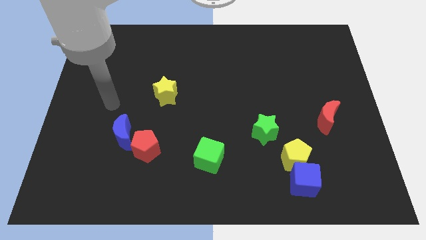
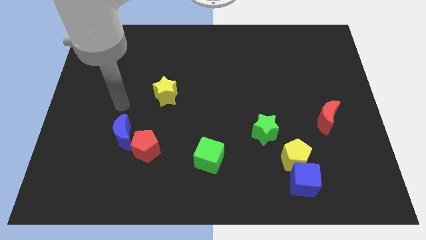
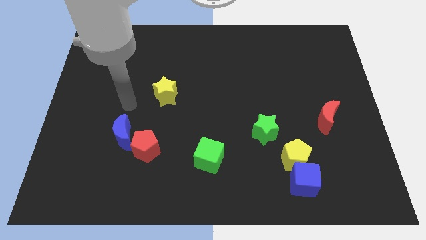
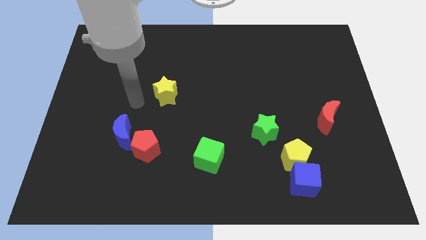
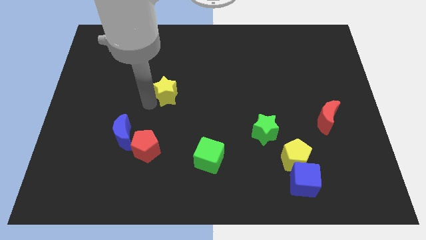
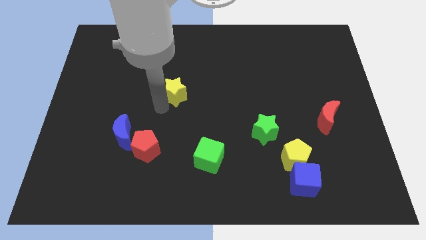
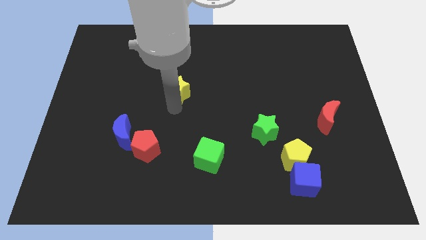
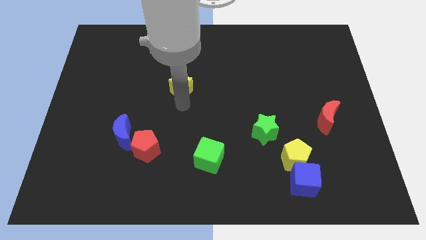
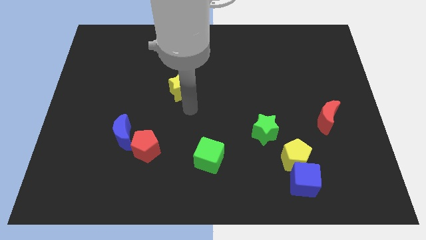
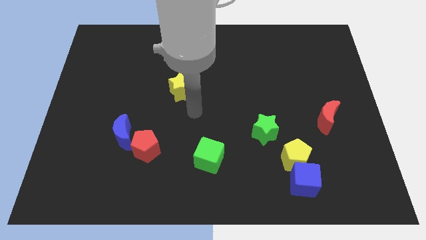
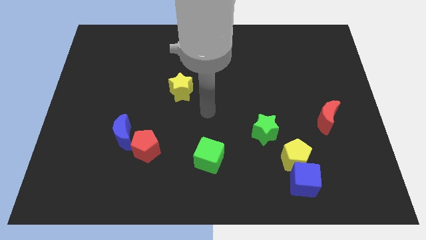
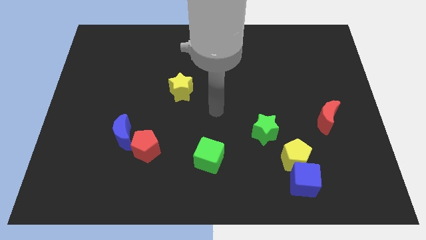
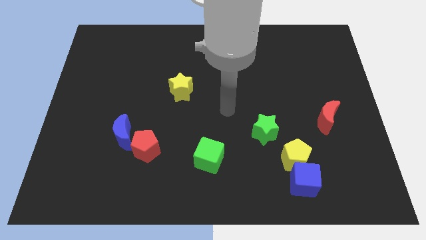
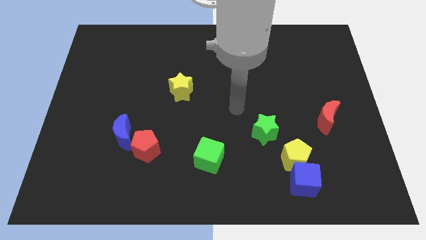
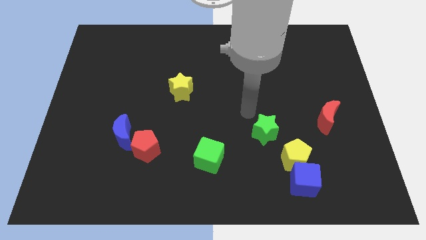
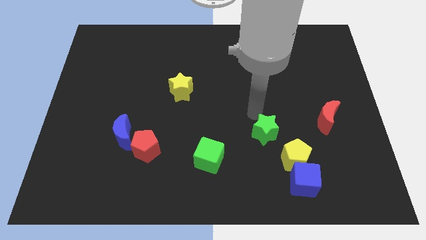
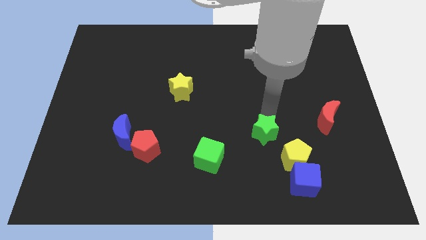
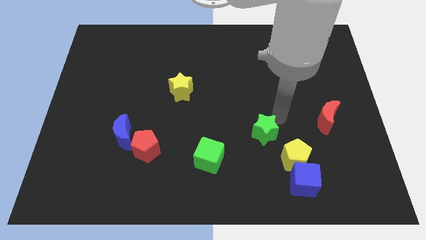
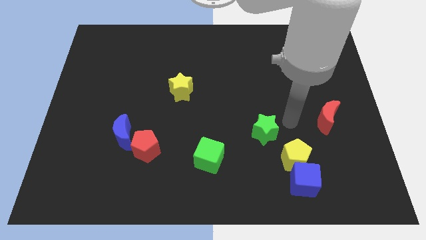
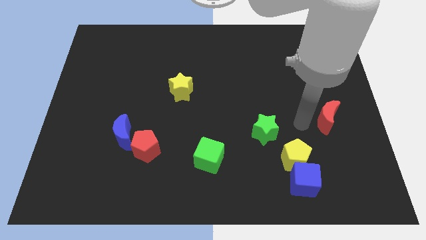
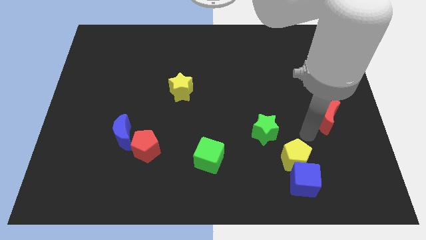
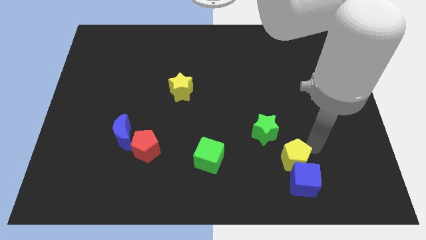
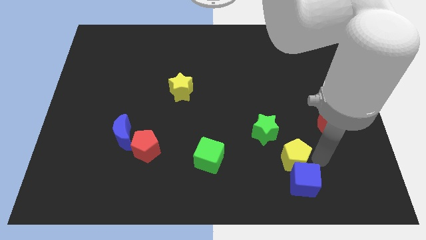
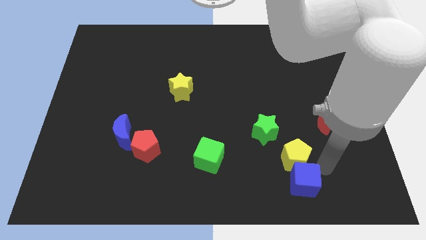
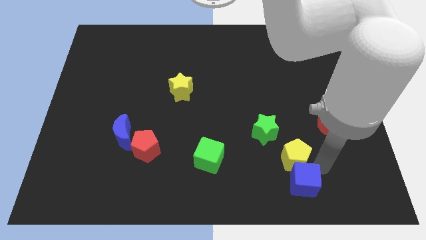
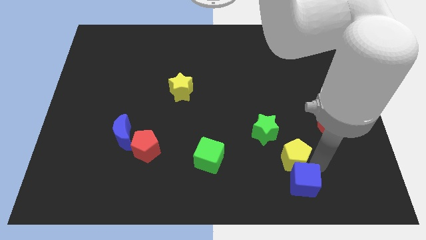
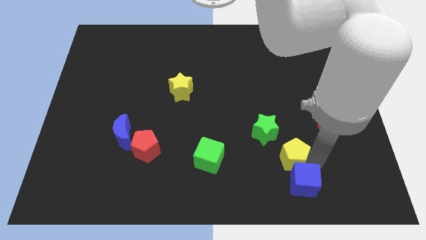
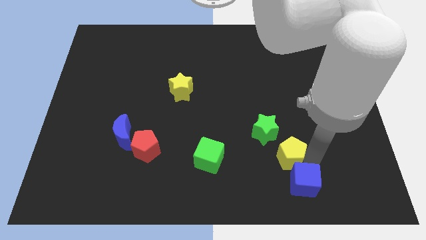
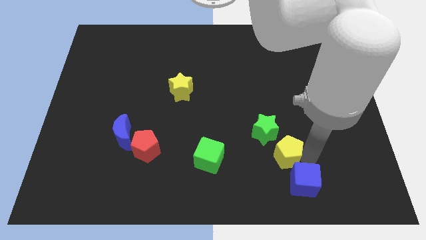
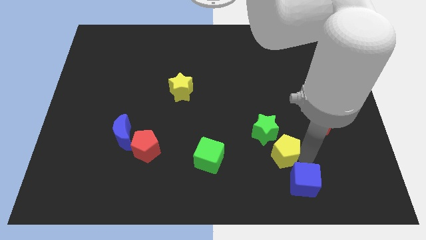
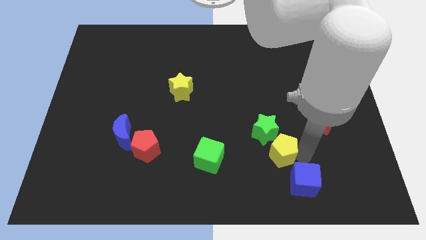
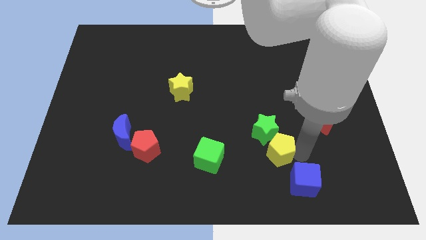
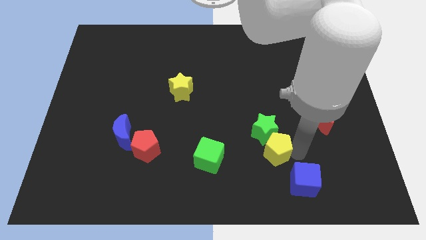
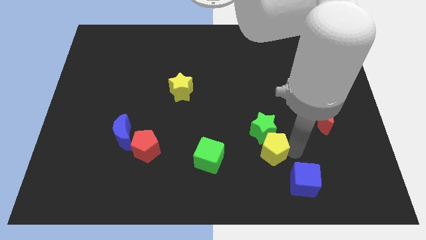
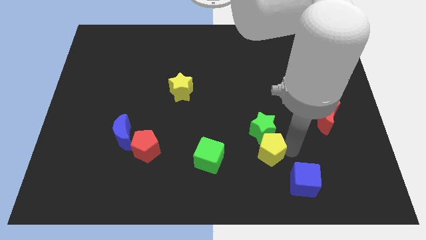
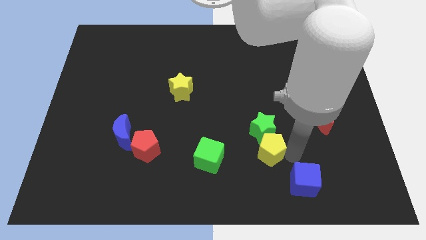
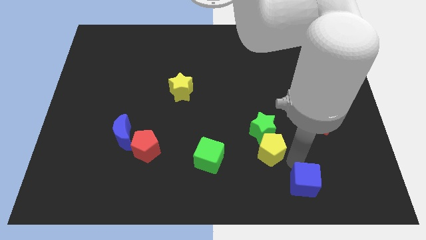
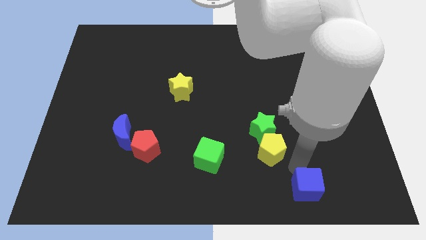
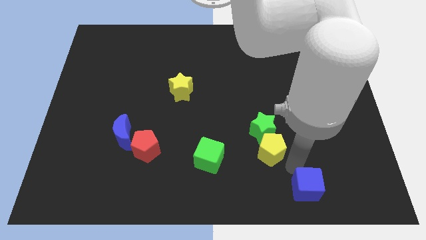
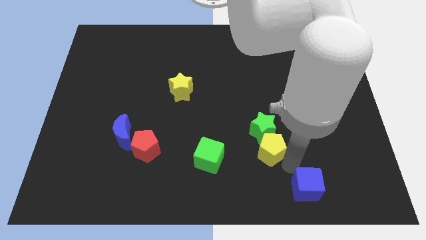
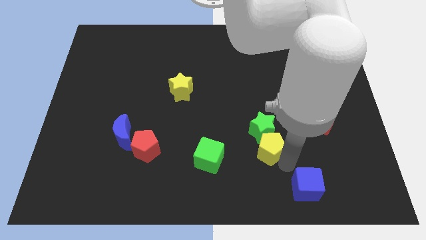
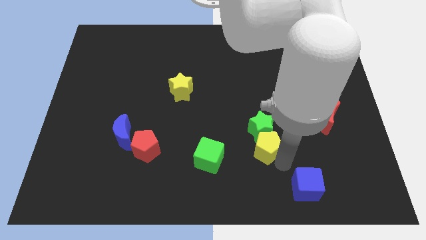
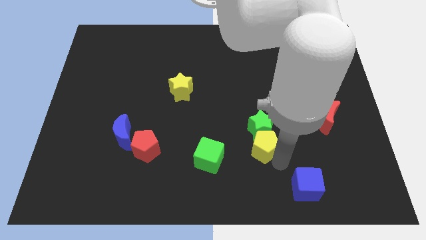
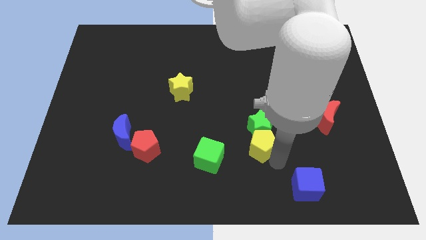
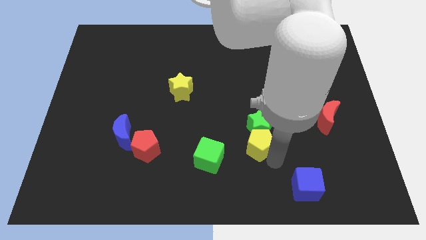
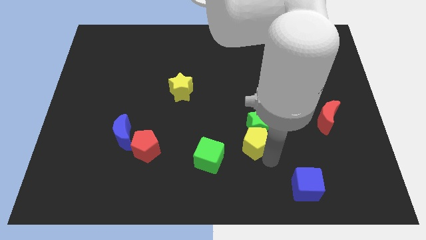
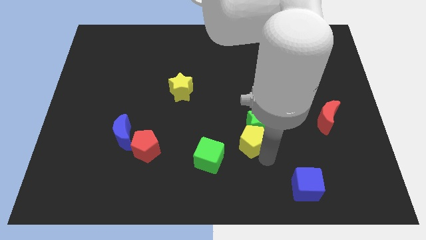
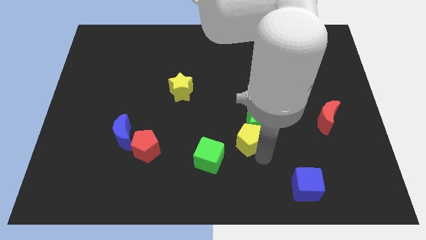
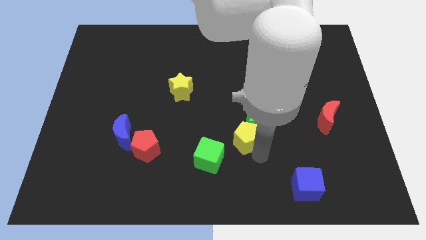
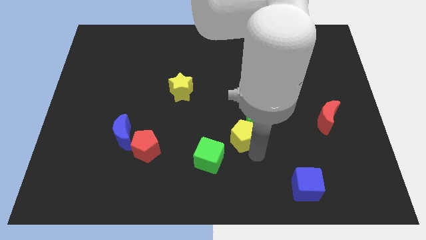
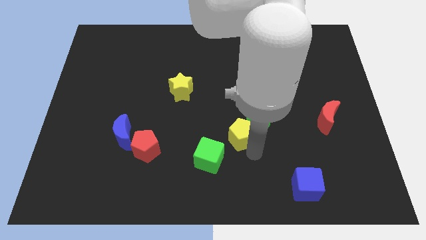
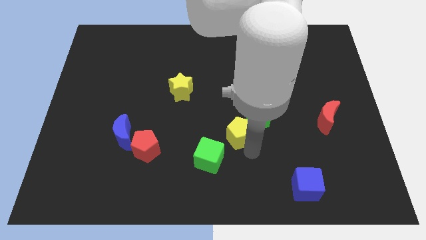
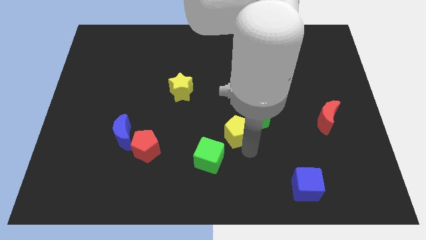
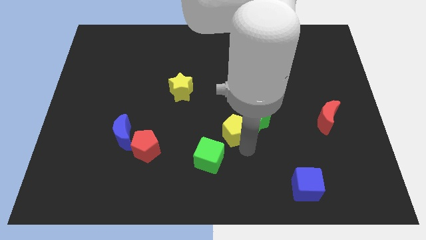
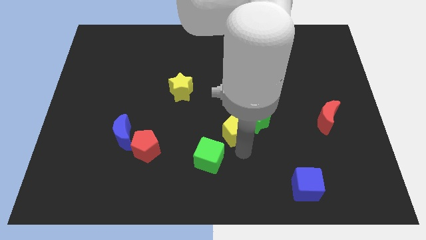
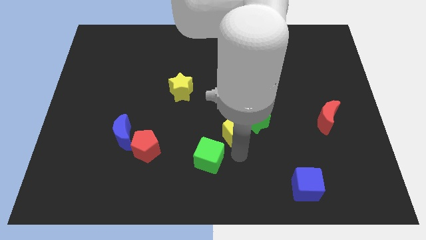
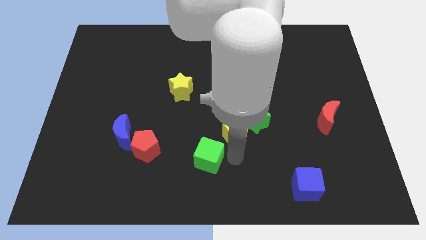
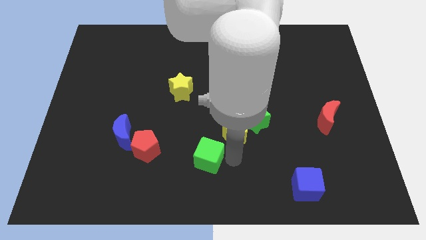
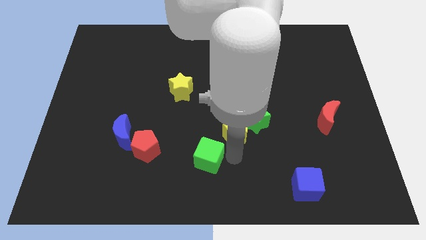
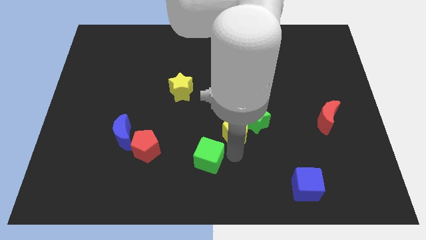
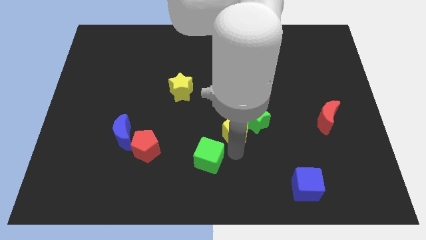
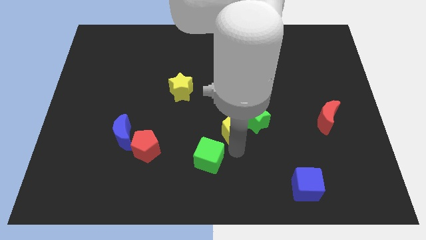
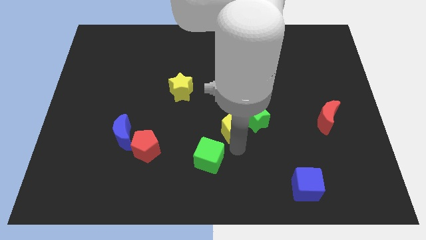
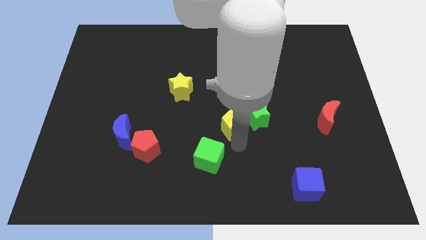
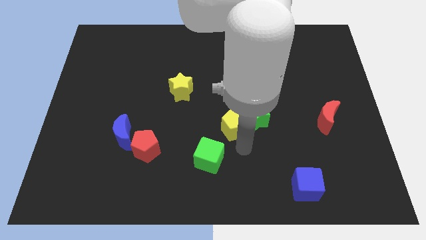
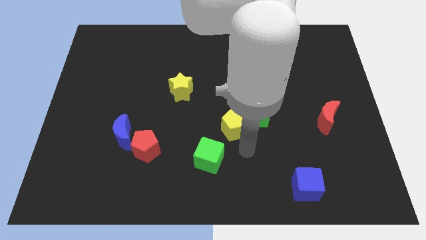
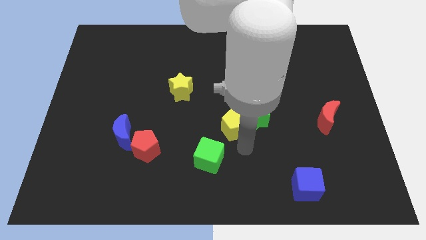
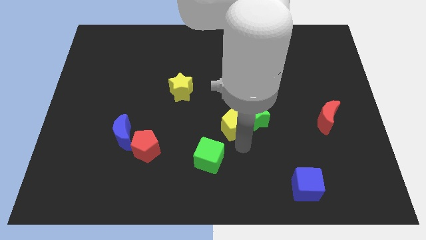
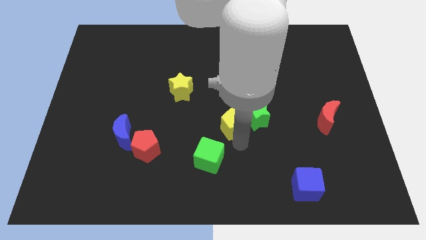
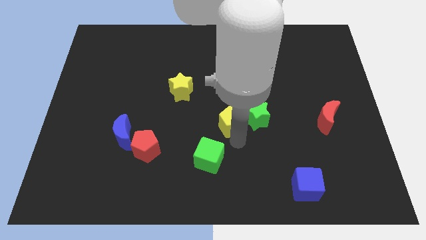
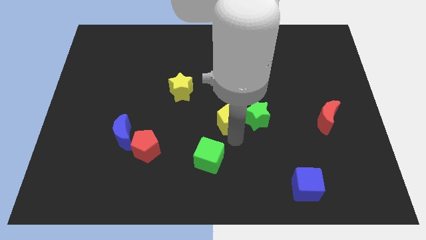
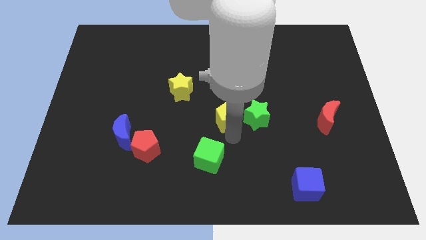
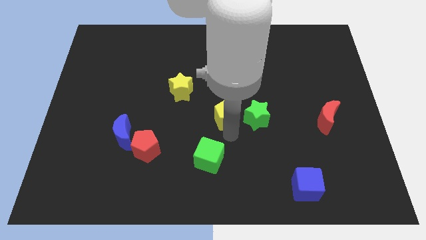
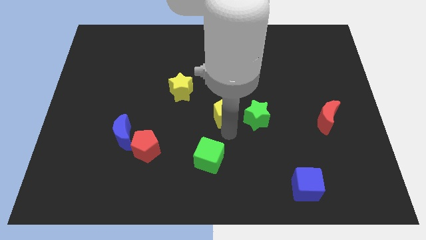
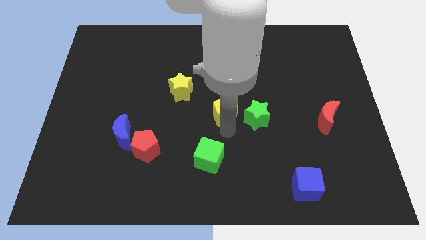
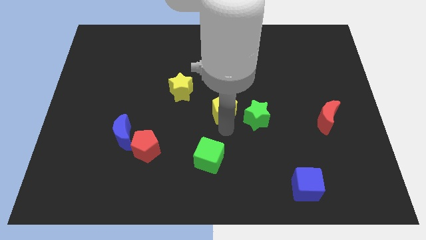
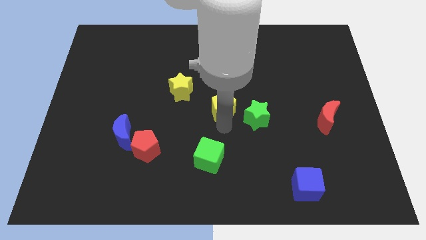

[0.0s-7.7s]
move the yellow pentagon upwards and left diagonally

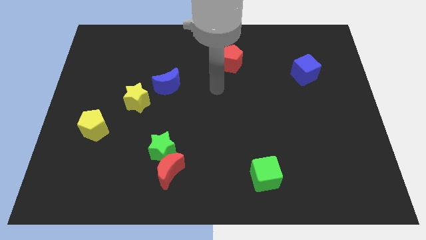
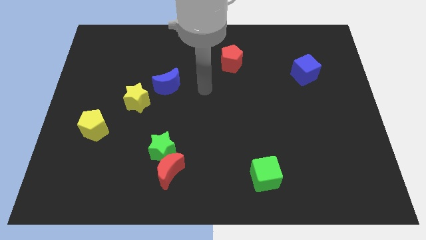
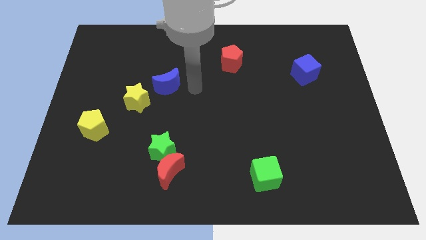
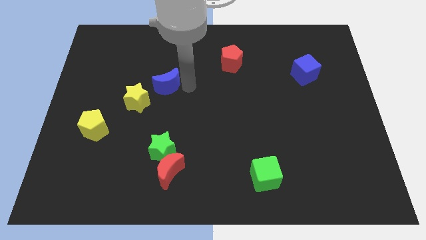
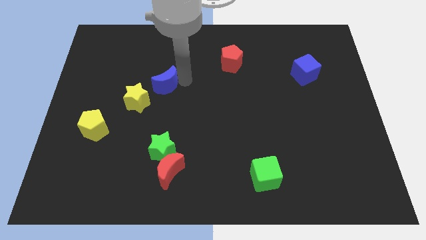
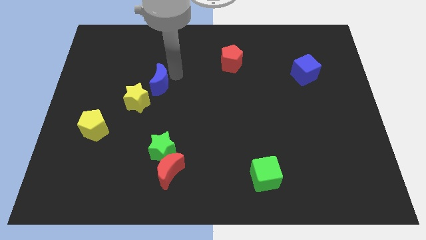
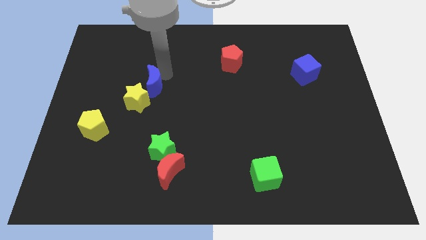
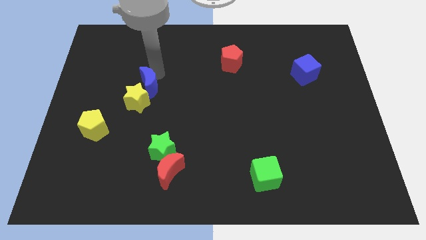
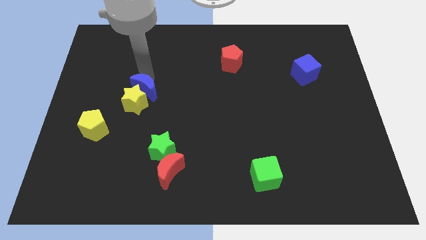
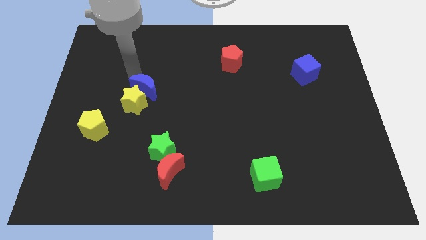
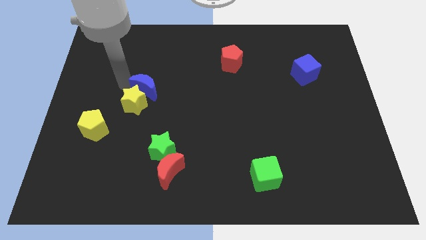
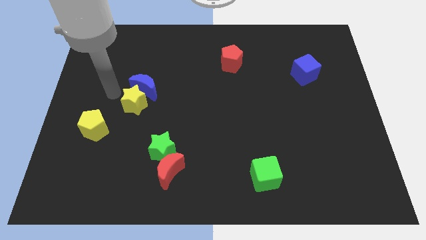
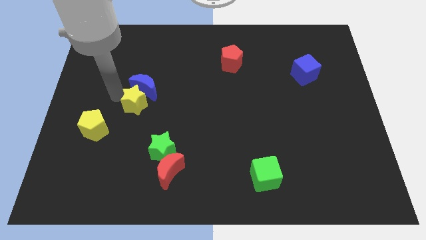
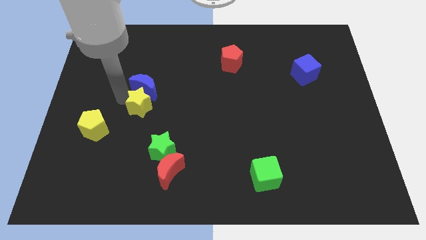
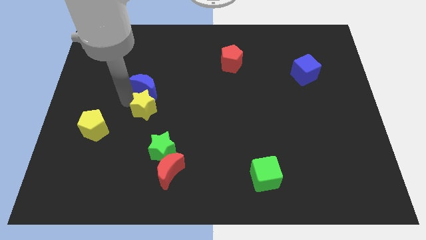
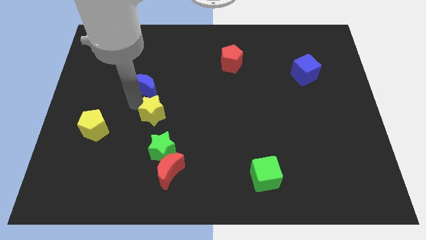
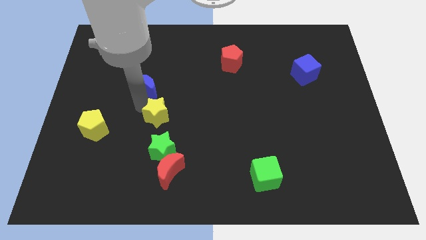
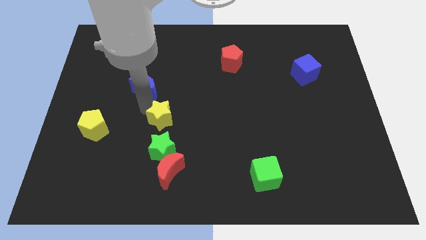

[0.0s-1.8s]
move the yellow star down and right diagonally a little bit
